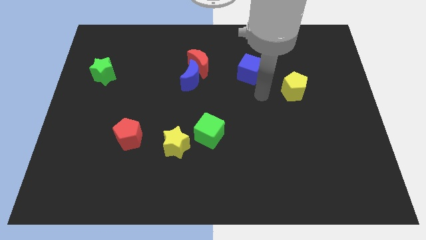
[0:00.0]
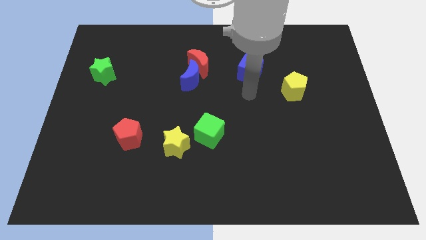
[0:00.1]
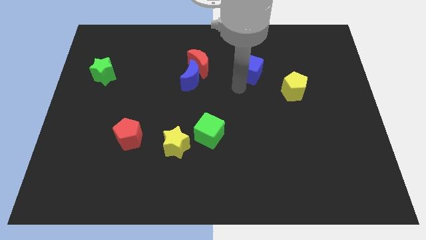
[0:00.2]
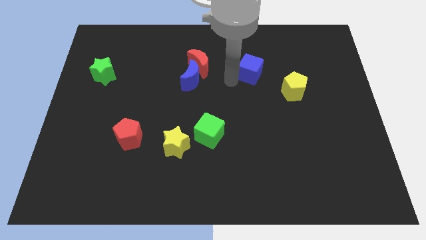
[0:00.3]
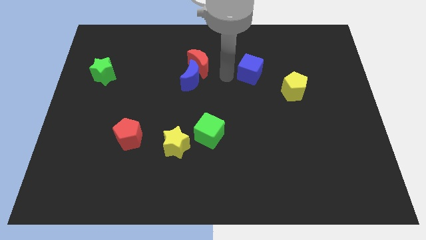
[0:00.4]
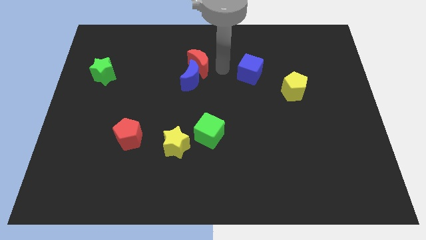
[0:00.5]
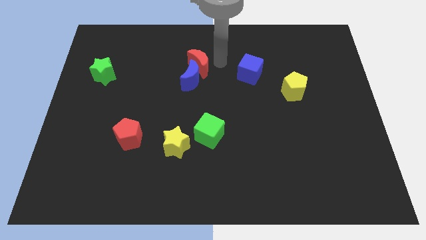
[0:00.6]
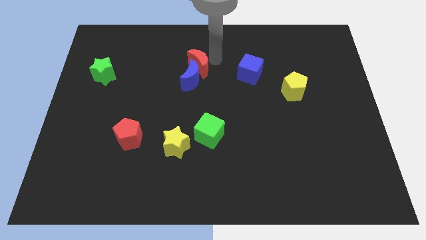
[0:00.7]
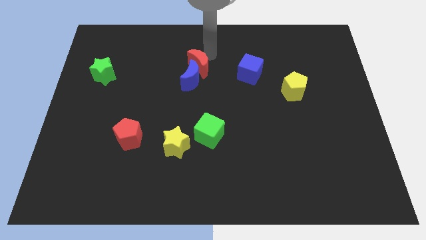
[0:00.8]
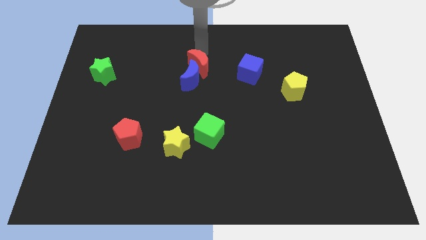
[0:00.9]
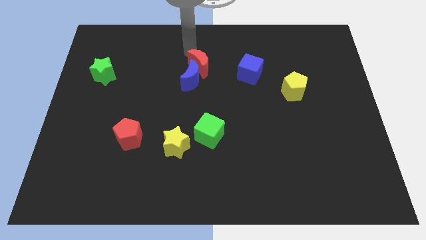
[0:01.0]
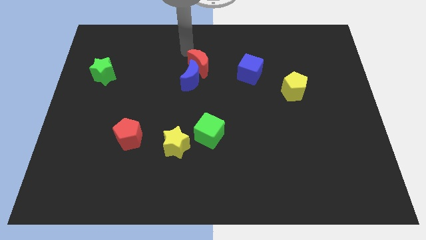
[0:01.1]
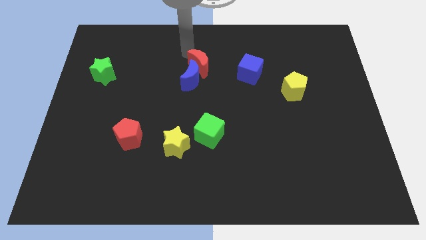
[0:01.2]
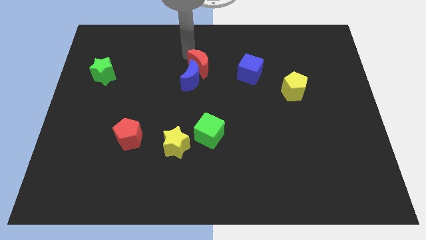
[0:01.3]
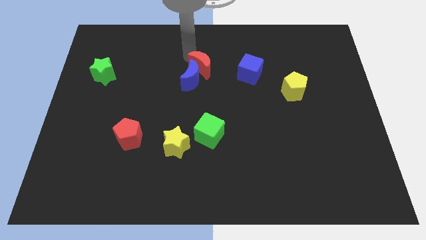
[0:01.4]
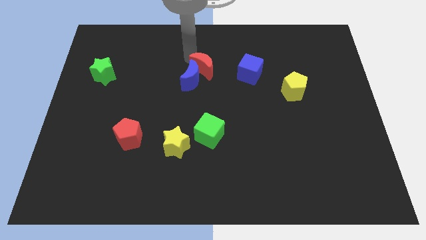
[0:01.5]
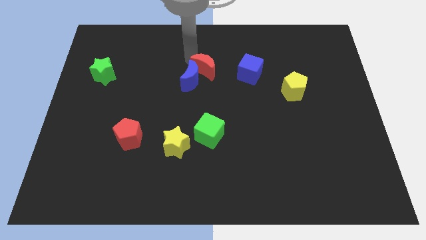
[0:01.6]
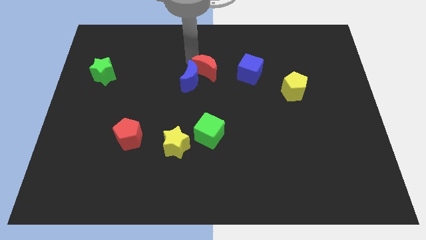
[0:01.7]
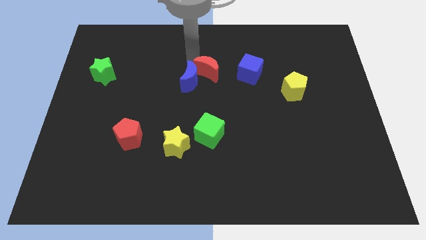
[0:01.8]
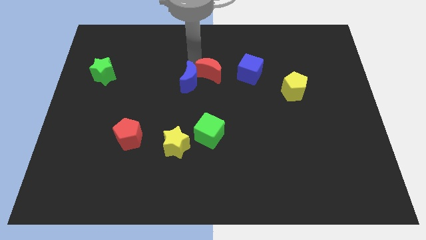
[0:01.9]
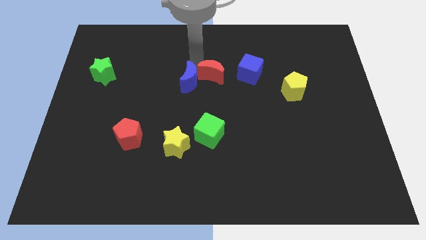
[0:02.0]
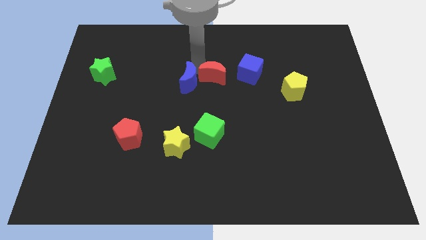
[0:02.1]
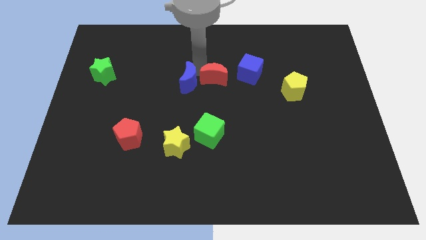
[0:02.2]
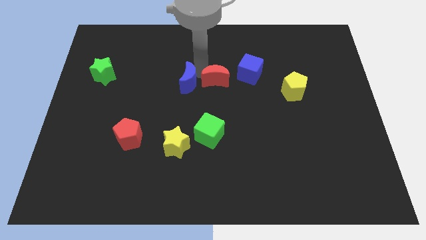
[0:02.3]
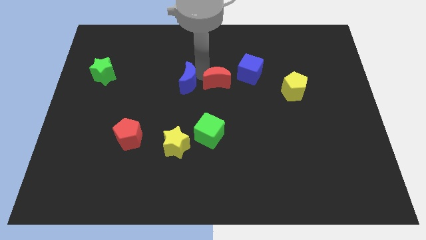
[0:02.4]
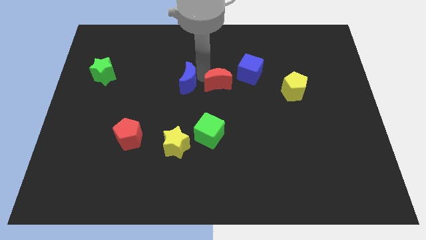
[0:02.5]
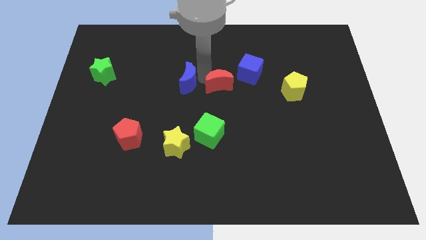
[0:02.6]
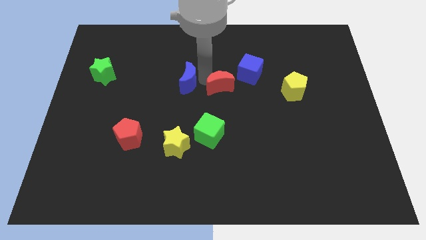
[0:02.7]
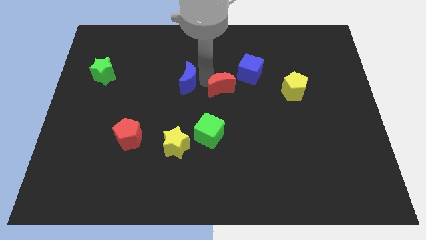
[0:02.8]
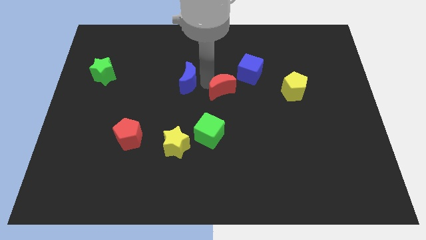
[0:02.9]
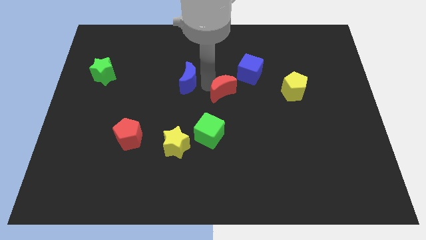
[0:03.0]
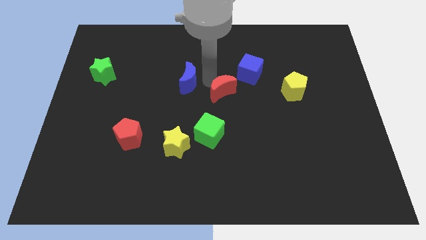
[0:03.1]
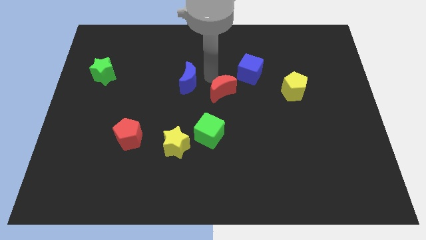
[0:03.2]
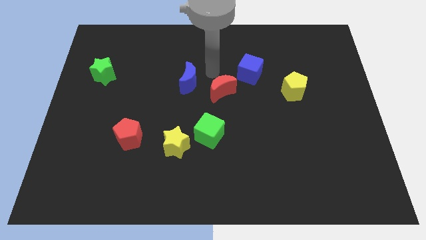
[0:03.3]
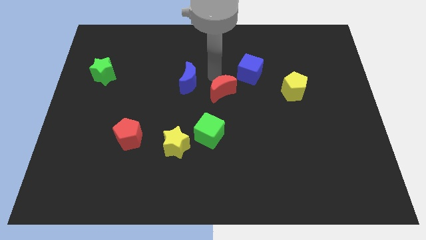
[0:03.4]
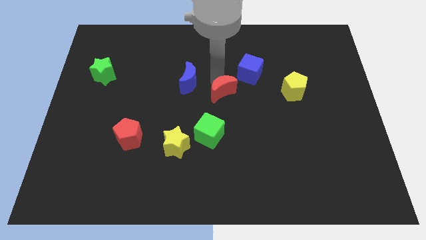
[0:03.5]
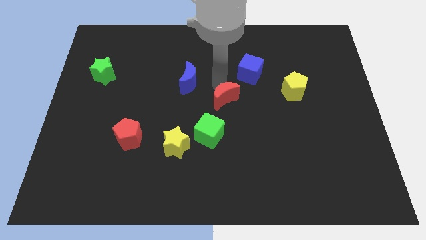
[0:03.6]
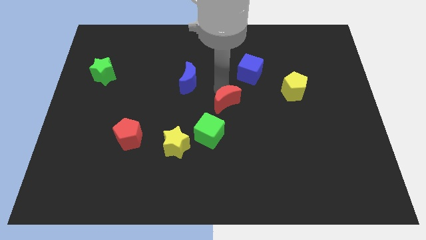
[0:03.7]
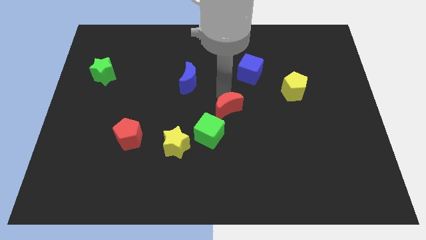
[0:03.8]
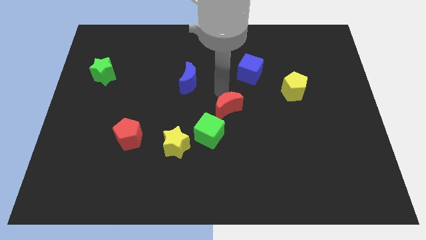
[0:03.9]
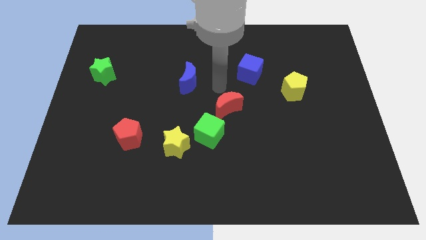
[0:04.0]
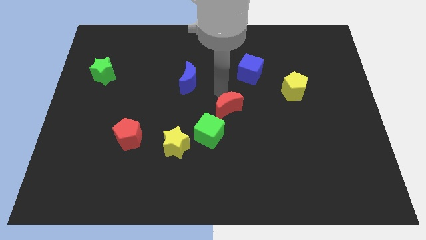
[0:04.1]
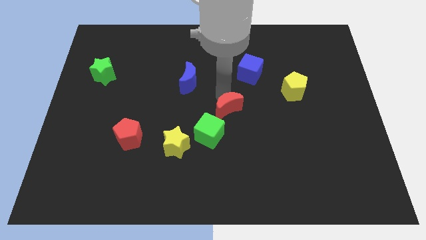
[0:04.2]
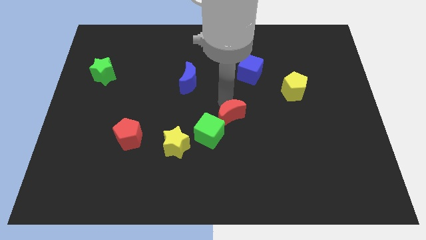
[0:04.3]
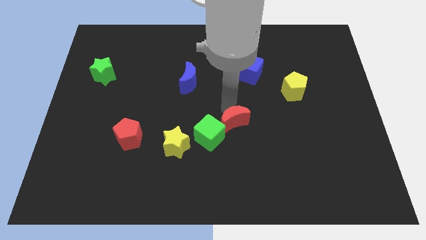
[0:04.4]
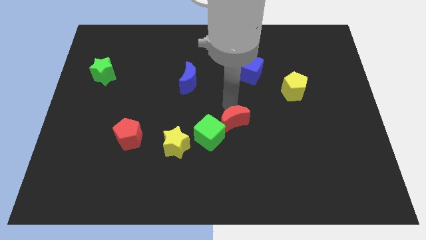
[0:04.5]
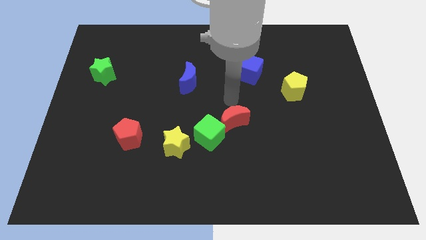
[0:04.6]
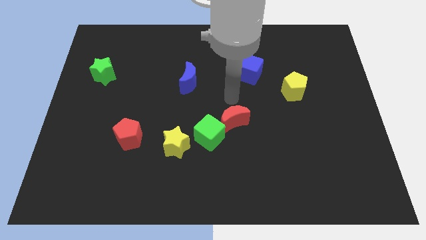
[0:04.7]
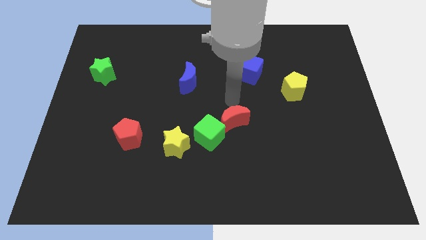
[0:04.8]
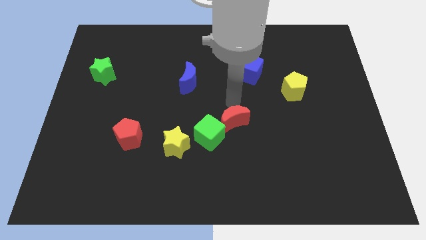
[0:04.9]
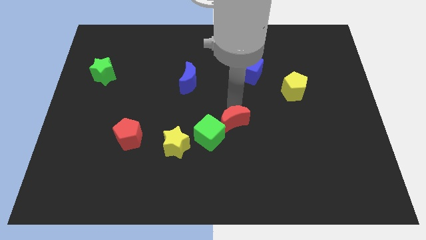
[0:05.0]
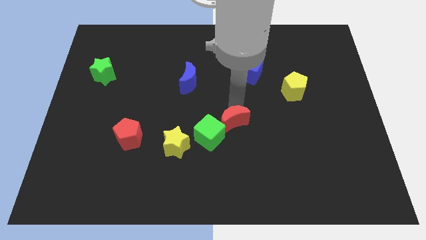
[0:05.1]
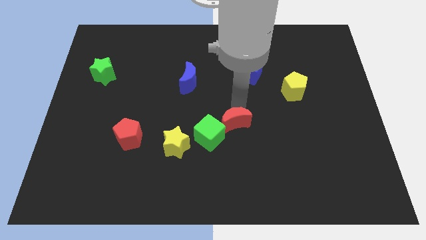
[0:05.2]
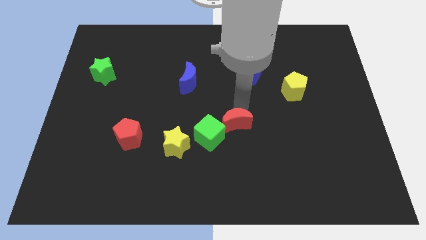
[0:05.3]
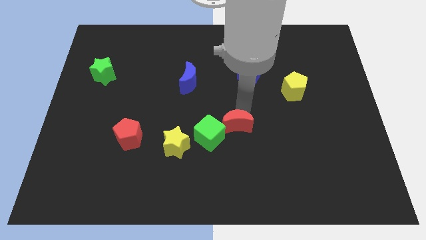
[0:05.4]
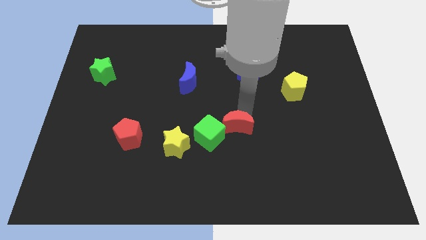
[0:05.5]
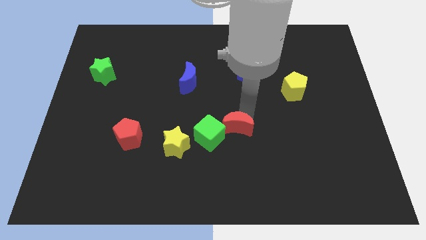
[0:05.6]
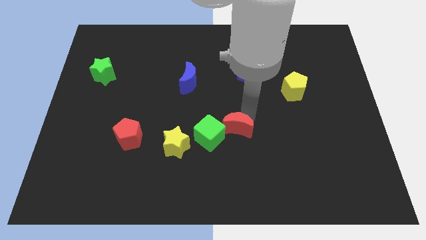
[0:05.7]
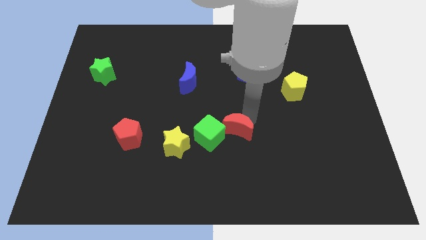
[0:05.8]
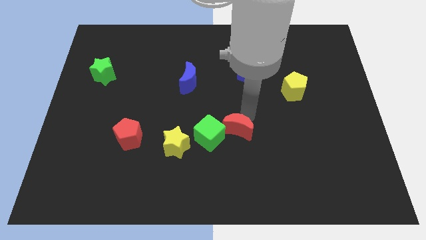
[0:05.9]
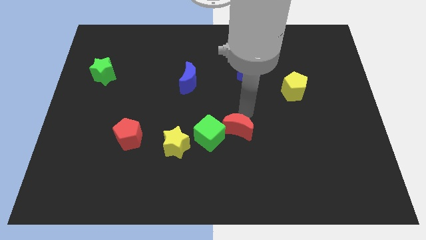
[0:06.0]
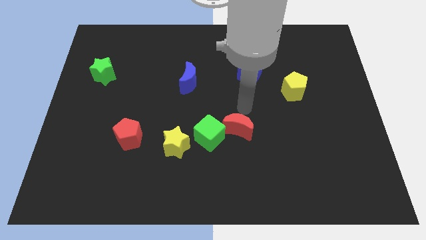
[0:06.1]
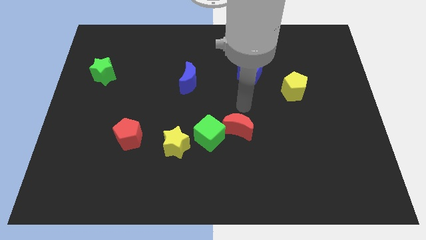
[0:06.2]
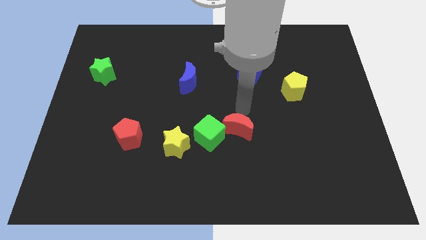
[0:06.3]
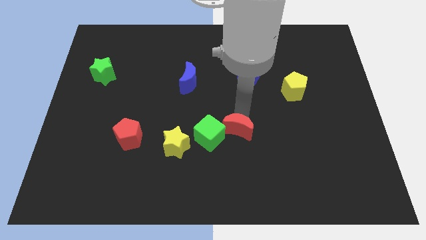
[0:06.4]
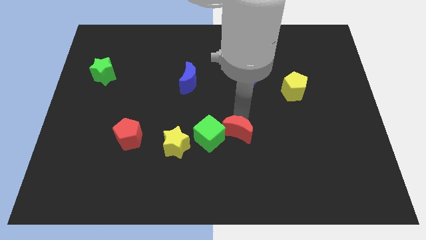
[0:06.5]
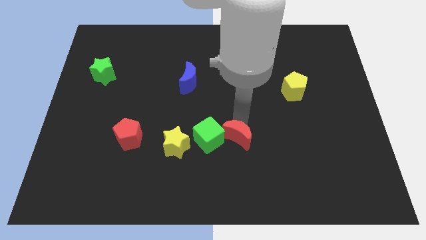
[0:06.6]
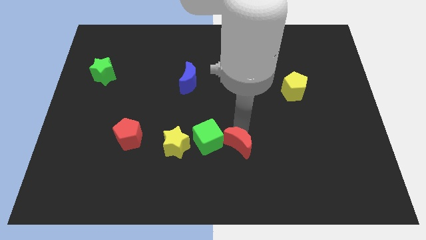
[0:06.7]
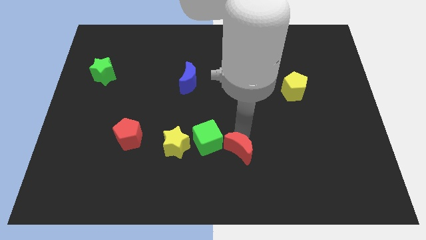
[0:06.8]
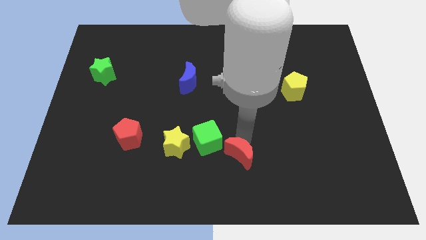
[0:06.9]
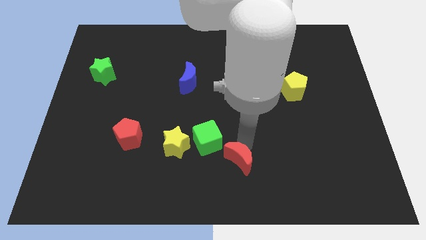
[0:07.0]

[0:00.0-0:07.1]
put the red moon to the bottom
